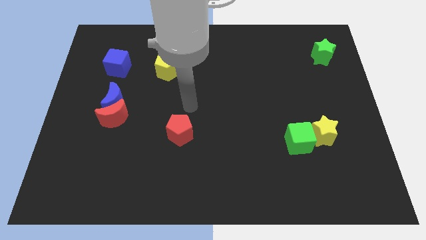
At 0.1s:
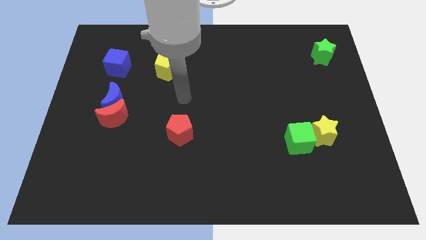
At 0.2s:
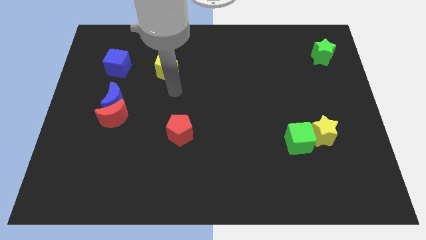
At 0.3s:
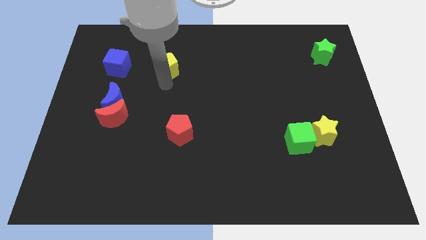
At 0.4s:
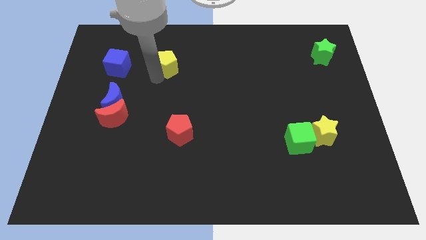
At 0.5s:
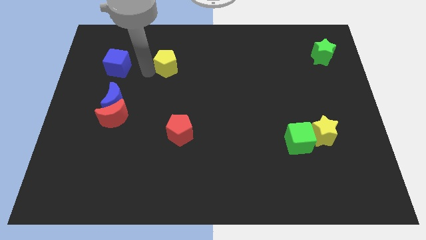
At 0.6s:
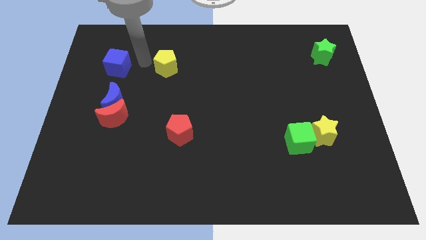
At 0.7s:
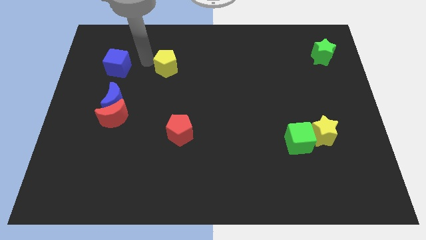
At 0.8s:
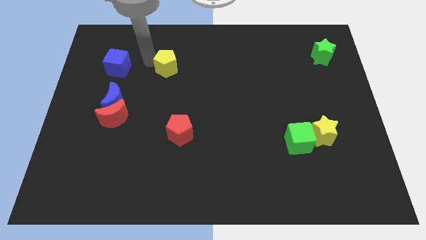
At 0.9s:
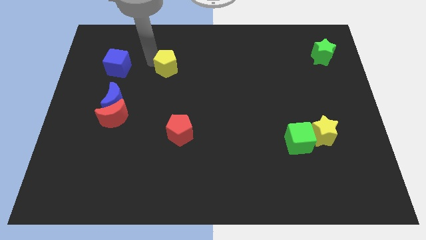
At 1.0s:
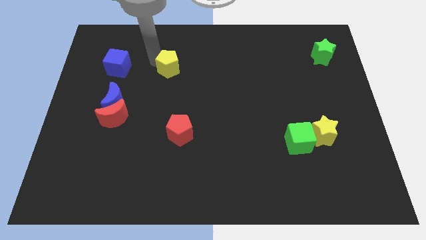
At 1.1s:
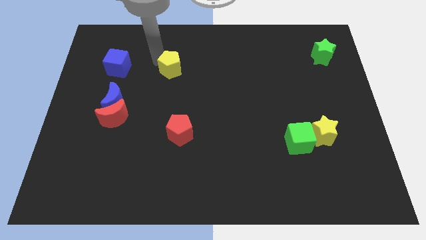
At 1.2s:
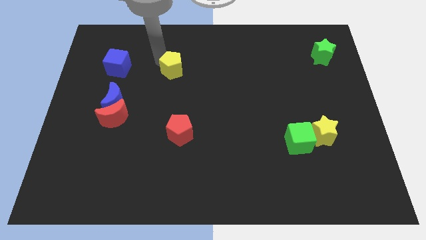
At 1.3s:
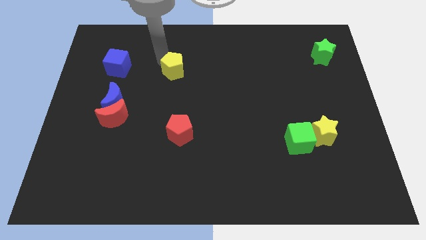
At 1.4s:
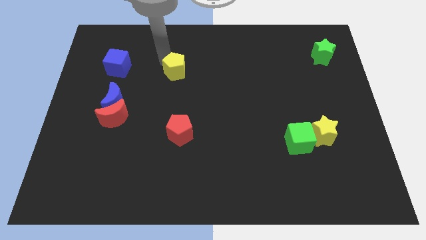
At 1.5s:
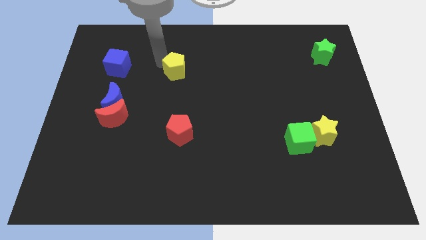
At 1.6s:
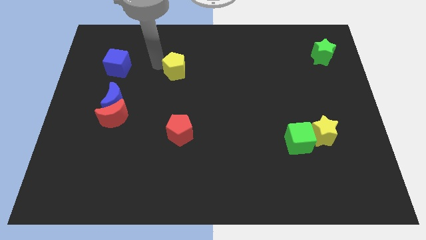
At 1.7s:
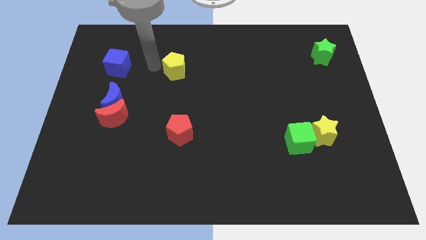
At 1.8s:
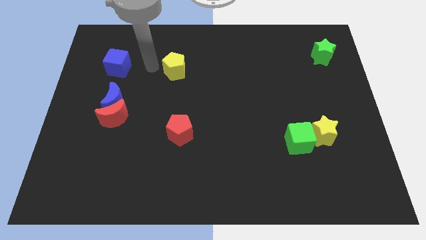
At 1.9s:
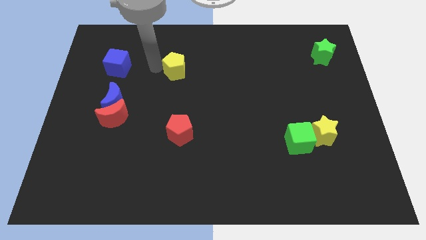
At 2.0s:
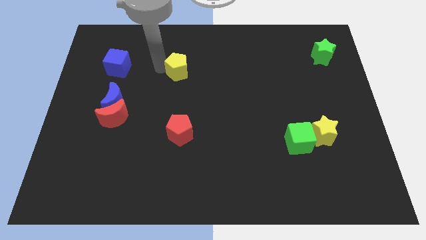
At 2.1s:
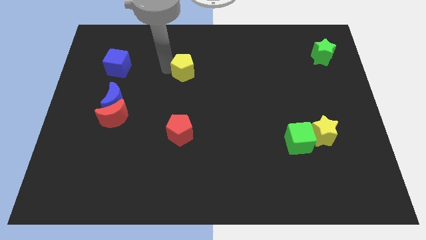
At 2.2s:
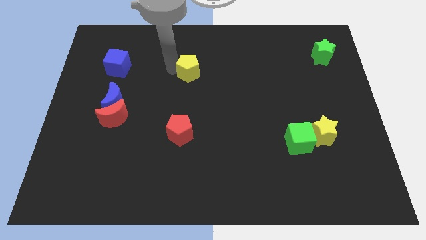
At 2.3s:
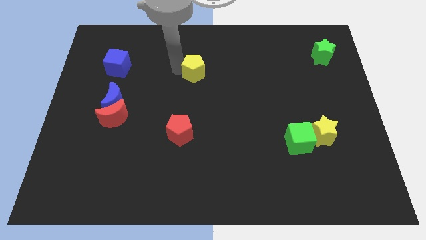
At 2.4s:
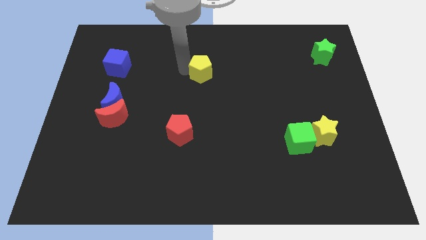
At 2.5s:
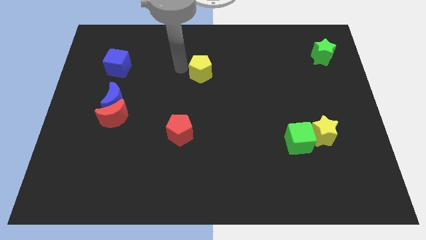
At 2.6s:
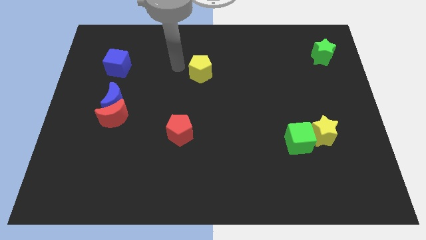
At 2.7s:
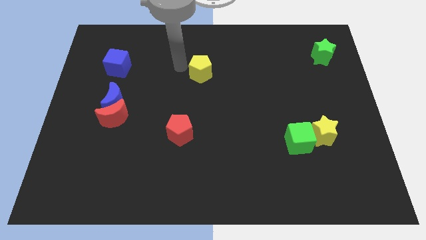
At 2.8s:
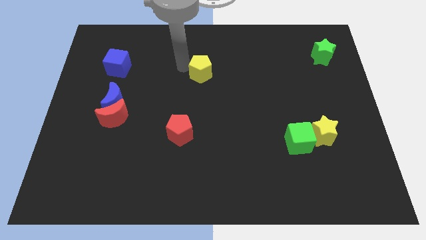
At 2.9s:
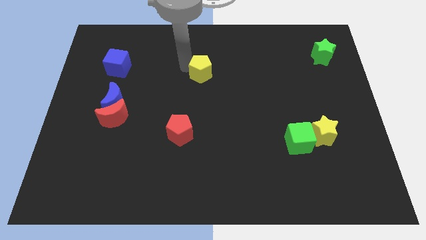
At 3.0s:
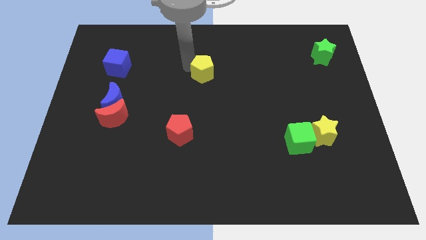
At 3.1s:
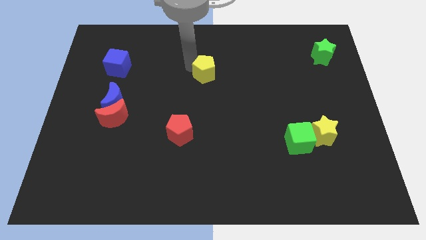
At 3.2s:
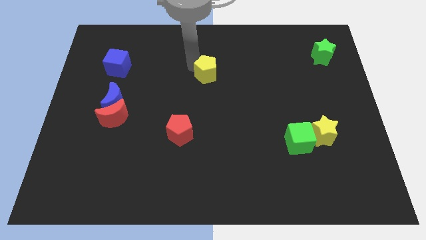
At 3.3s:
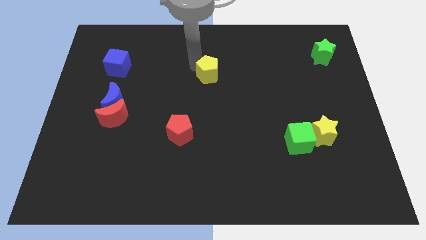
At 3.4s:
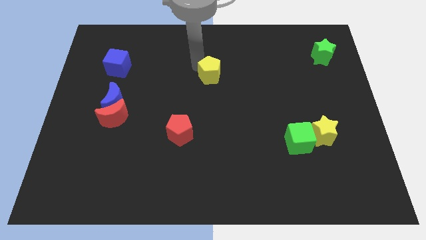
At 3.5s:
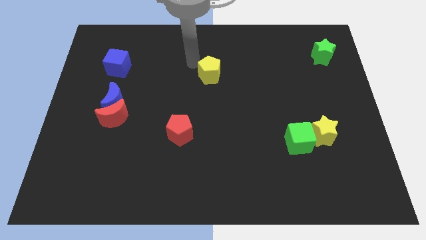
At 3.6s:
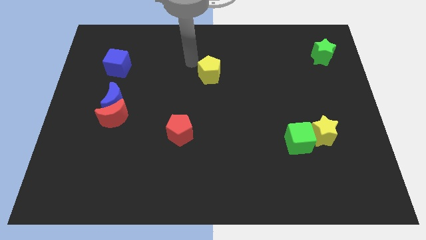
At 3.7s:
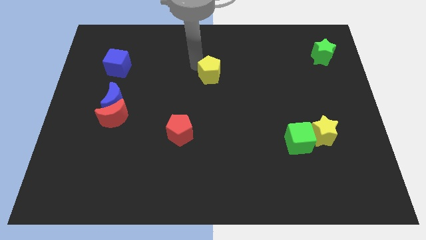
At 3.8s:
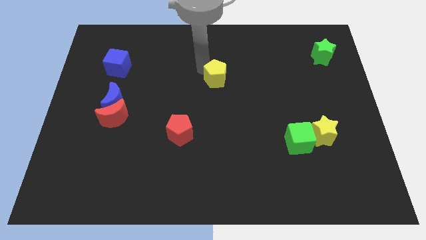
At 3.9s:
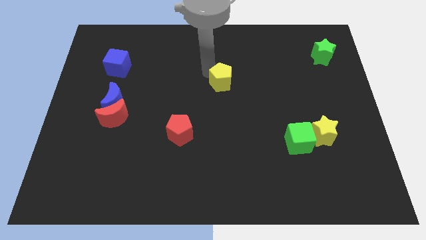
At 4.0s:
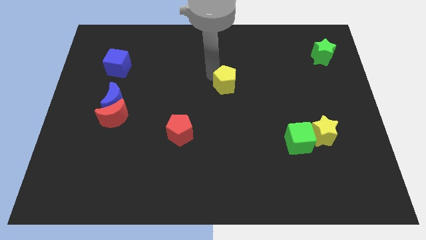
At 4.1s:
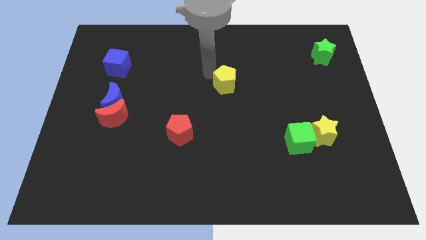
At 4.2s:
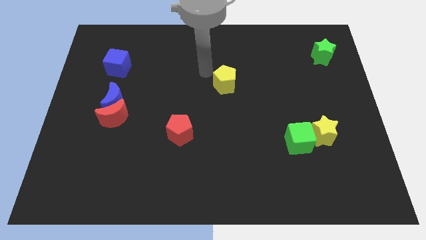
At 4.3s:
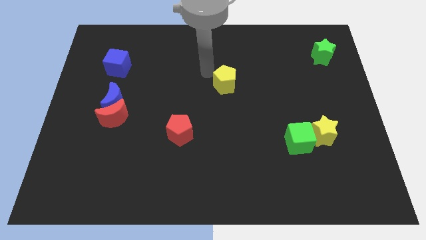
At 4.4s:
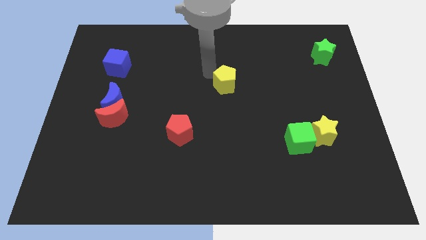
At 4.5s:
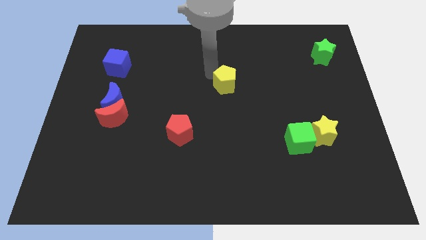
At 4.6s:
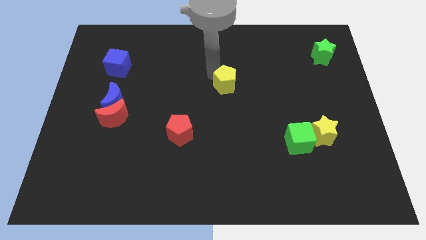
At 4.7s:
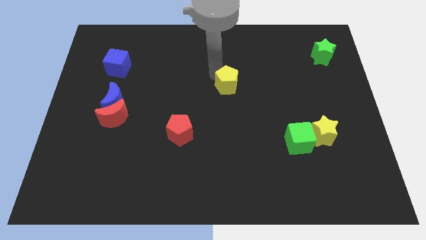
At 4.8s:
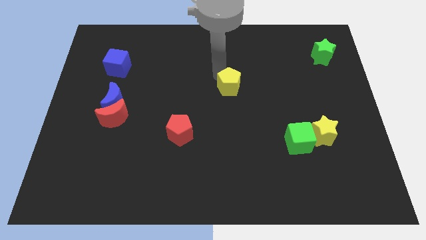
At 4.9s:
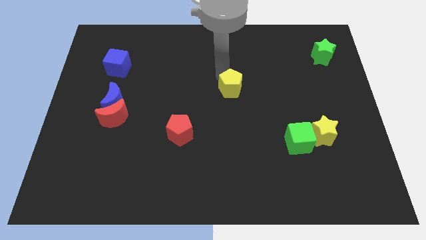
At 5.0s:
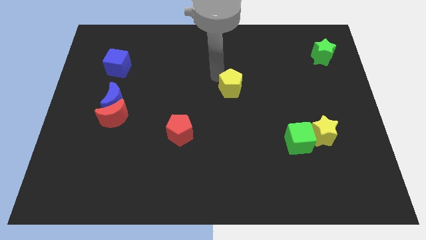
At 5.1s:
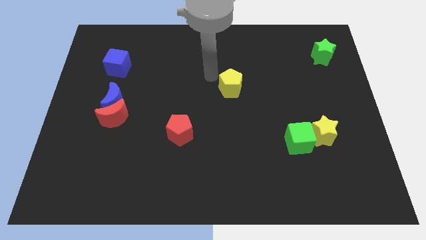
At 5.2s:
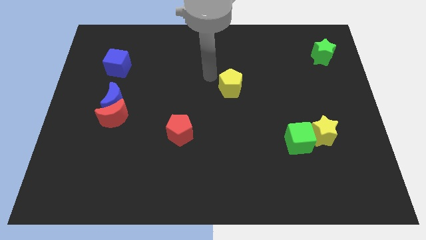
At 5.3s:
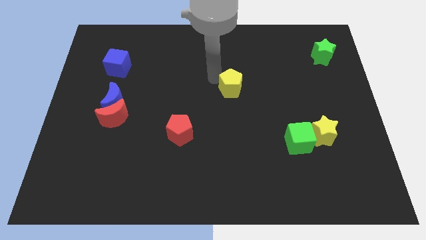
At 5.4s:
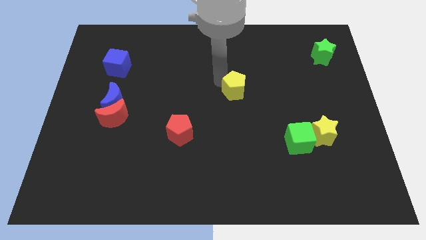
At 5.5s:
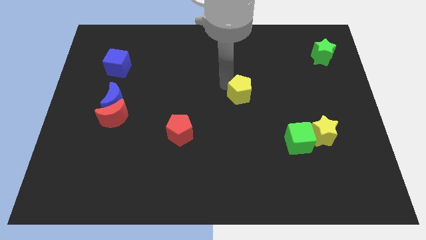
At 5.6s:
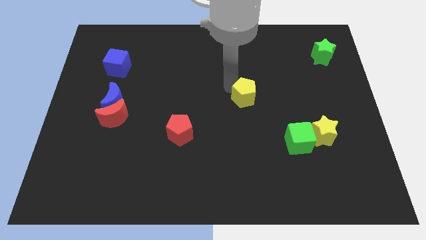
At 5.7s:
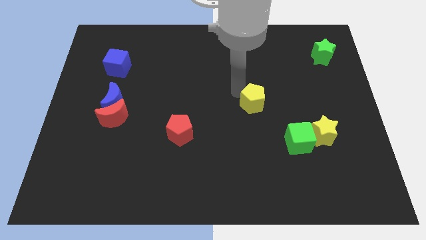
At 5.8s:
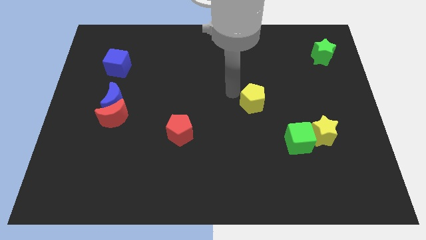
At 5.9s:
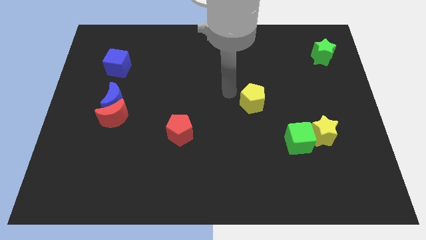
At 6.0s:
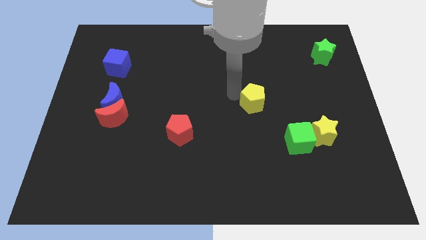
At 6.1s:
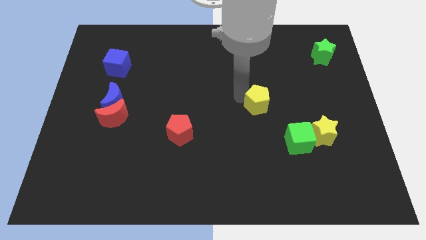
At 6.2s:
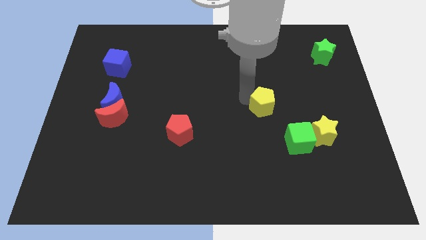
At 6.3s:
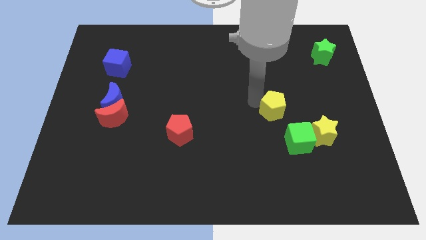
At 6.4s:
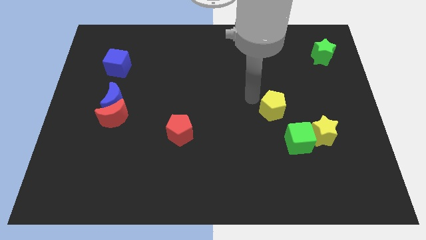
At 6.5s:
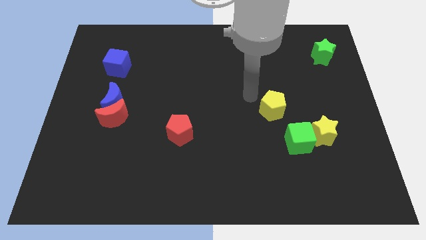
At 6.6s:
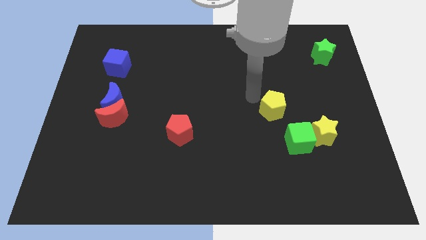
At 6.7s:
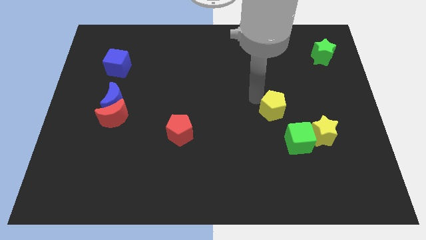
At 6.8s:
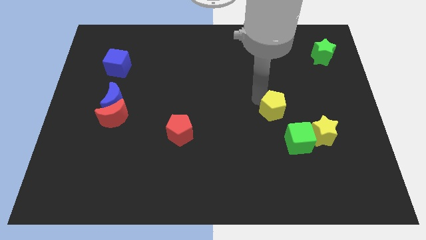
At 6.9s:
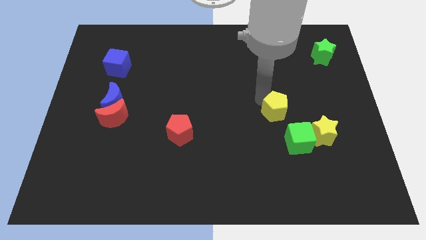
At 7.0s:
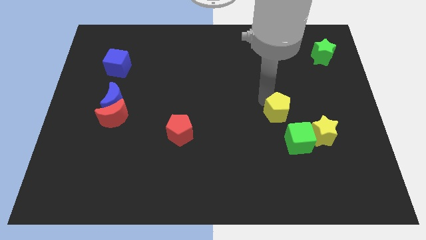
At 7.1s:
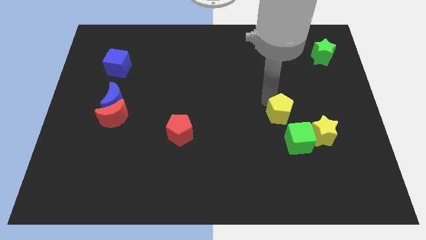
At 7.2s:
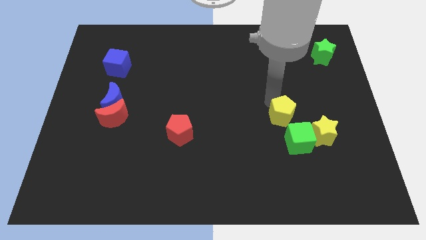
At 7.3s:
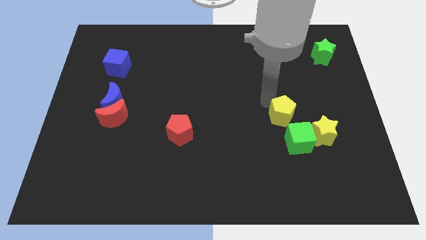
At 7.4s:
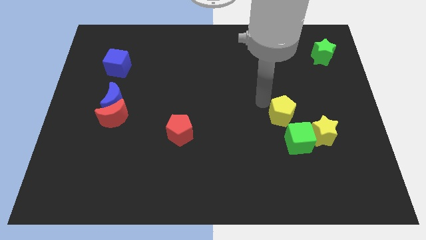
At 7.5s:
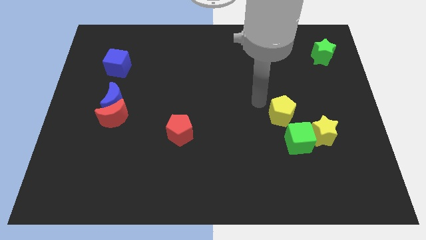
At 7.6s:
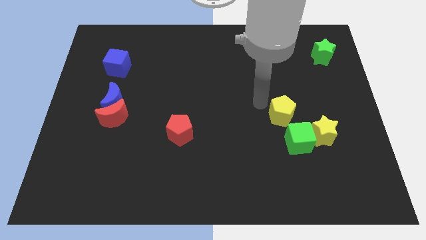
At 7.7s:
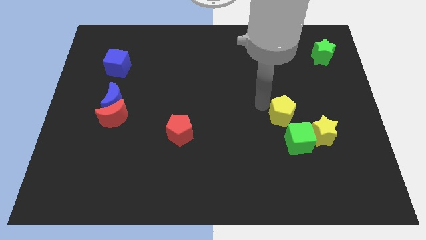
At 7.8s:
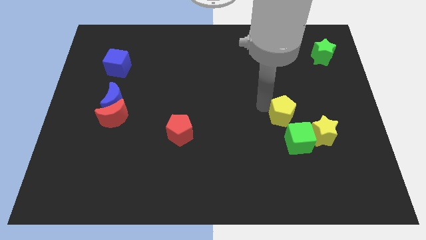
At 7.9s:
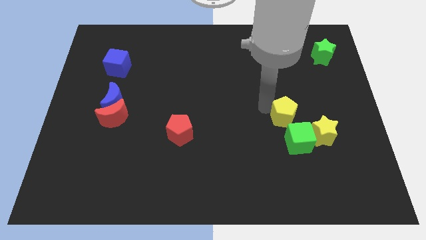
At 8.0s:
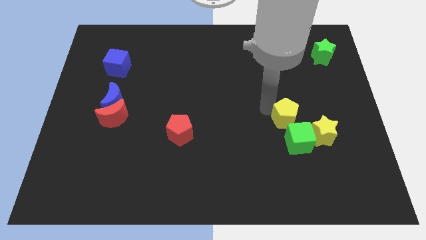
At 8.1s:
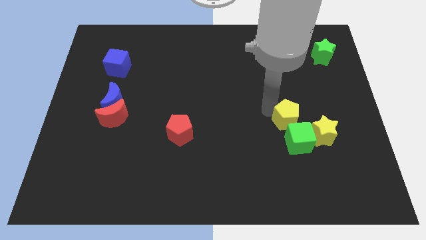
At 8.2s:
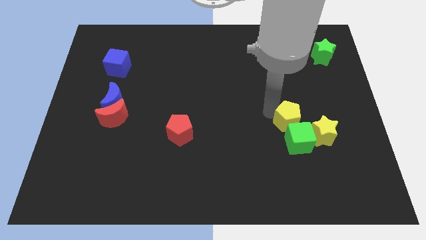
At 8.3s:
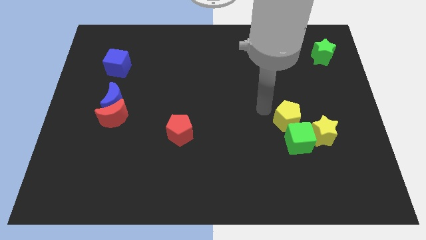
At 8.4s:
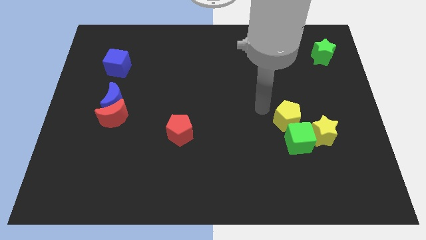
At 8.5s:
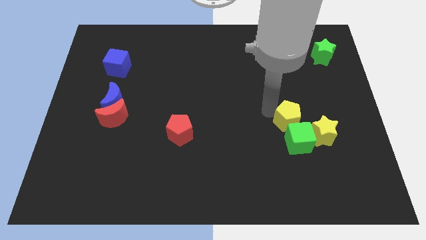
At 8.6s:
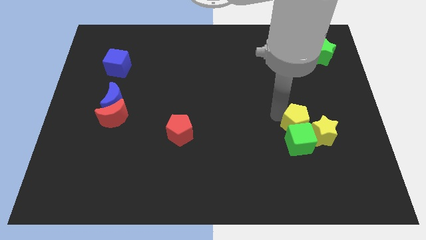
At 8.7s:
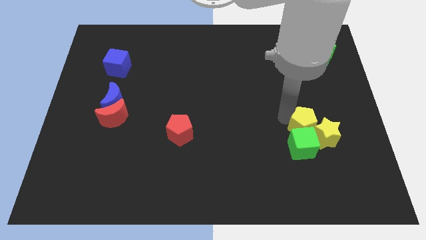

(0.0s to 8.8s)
move the yellow pentagon next to the yellow star
